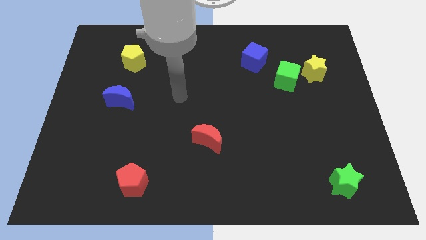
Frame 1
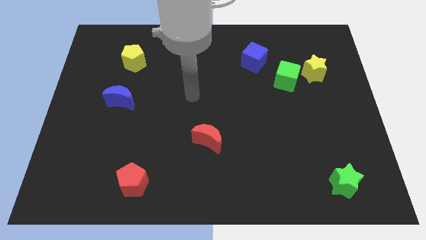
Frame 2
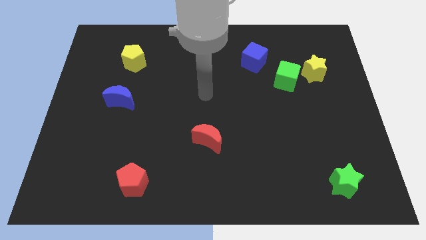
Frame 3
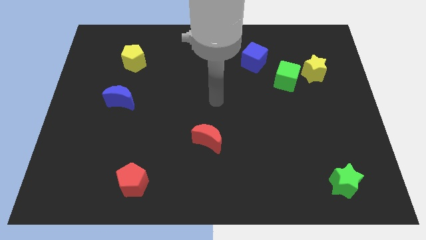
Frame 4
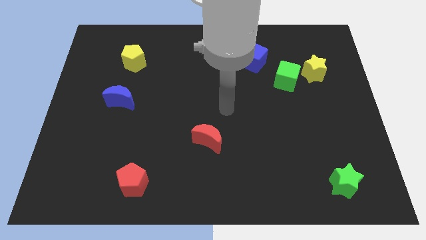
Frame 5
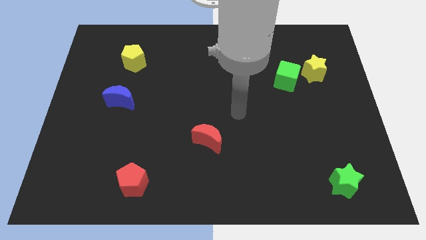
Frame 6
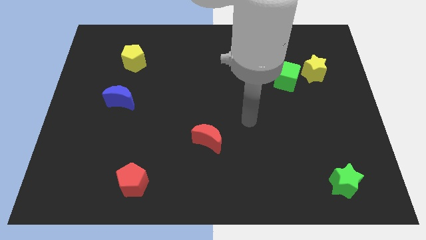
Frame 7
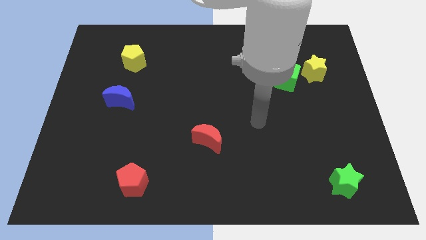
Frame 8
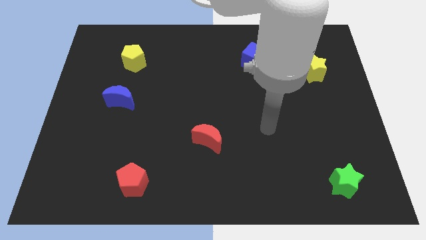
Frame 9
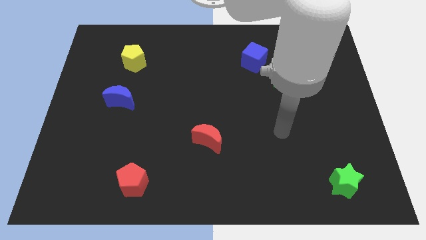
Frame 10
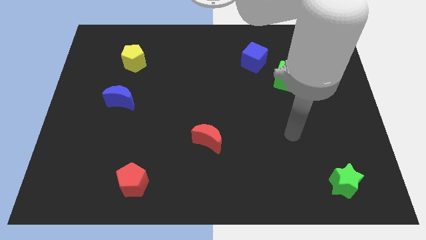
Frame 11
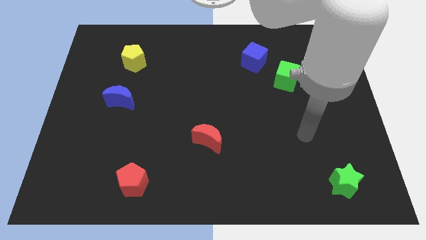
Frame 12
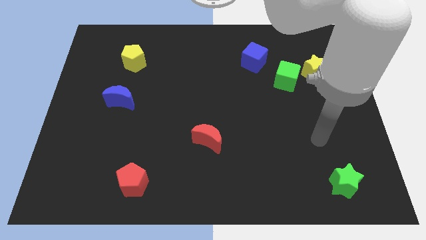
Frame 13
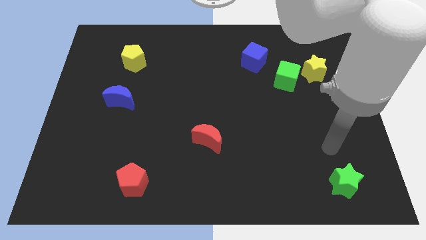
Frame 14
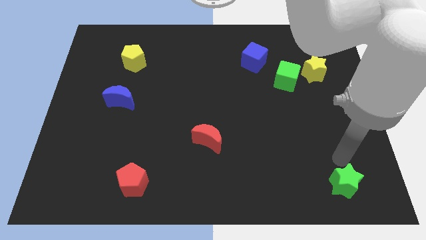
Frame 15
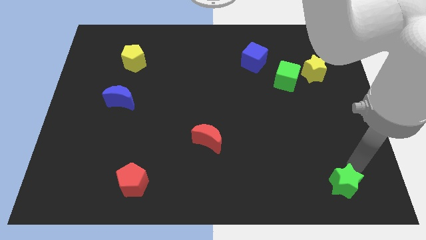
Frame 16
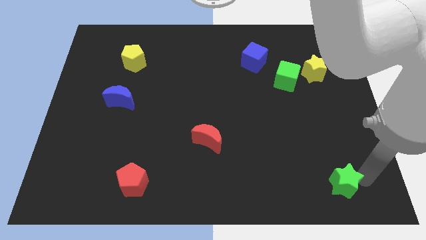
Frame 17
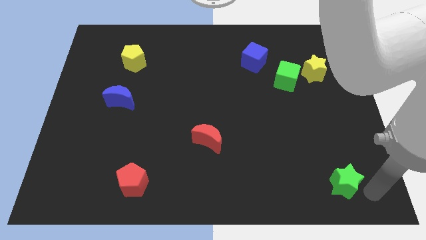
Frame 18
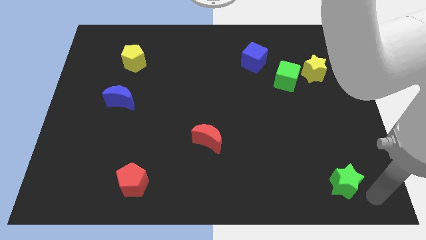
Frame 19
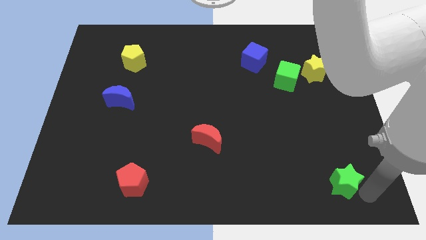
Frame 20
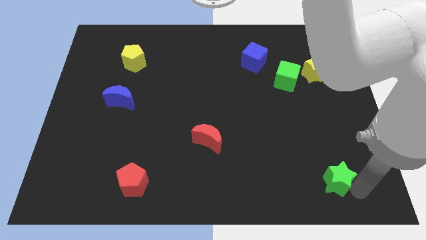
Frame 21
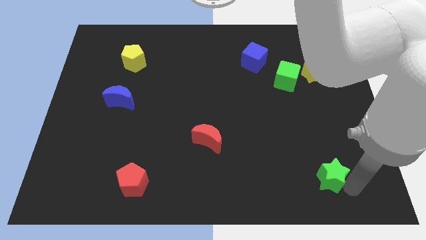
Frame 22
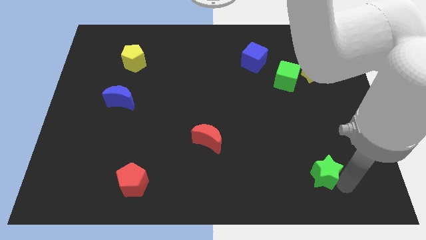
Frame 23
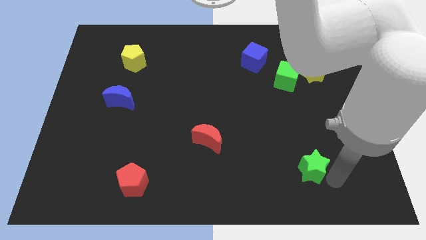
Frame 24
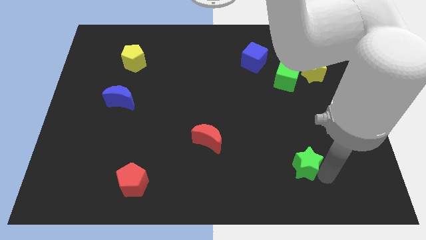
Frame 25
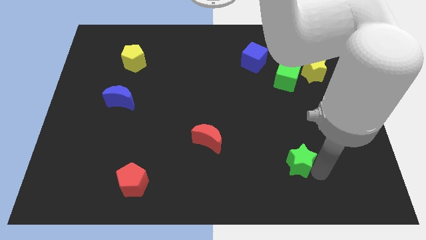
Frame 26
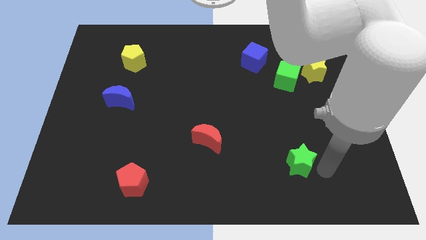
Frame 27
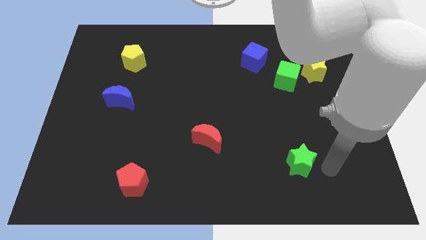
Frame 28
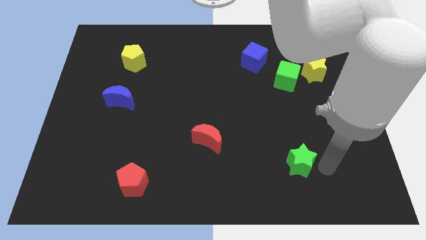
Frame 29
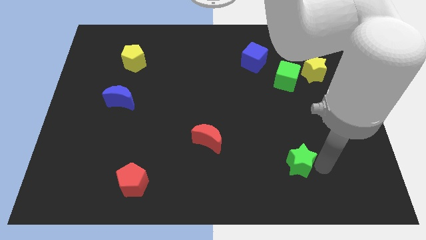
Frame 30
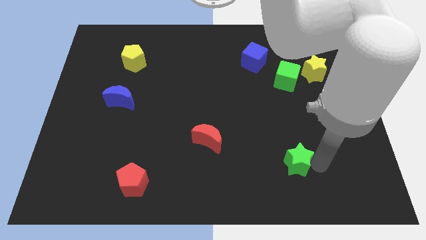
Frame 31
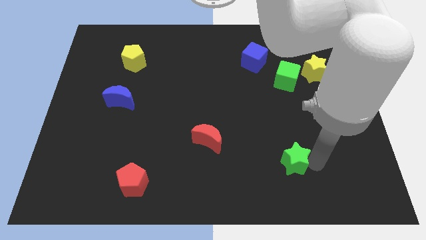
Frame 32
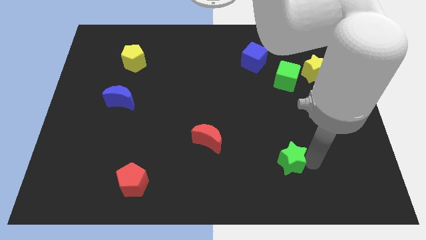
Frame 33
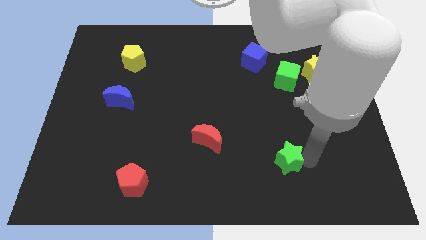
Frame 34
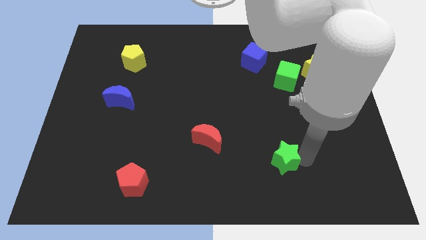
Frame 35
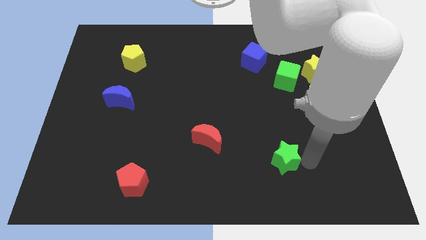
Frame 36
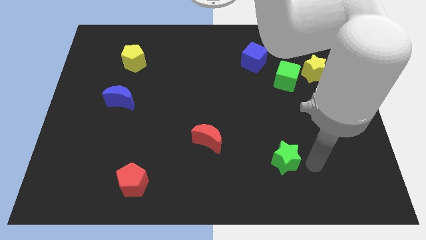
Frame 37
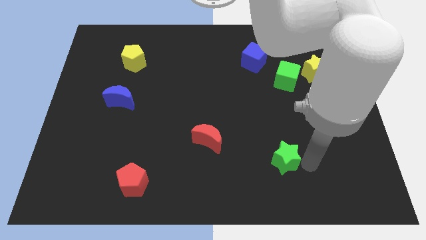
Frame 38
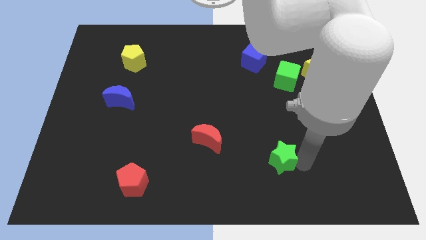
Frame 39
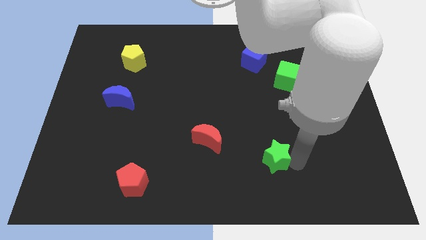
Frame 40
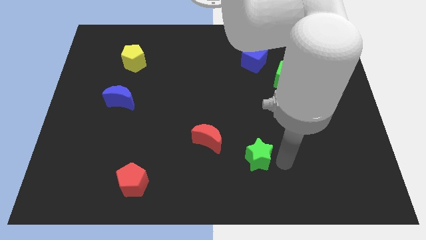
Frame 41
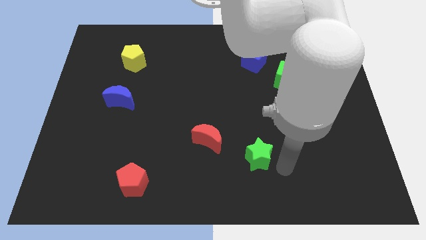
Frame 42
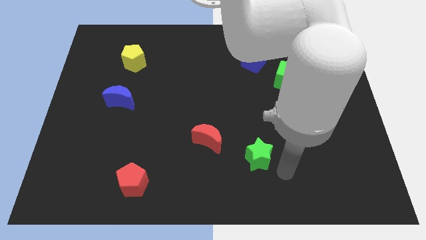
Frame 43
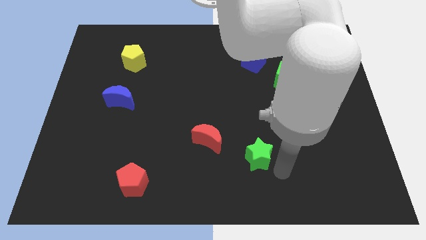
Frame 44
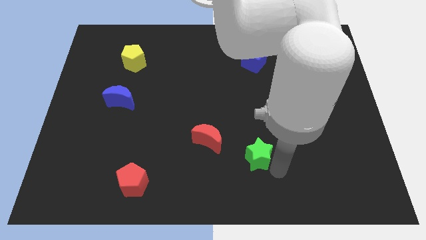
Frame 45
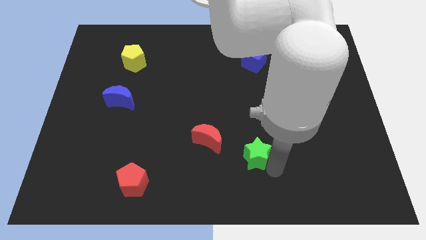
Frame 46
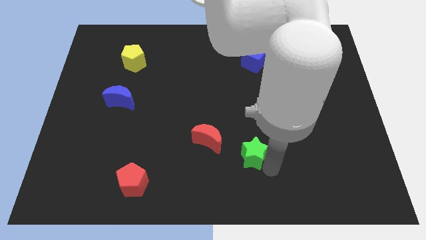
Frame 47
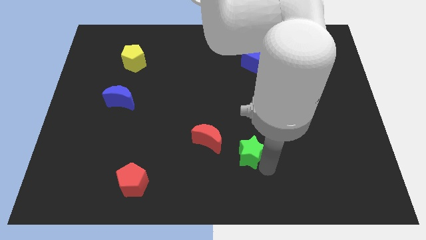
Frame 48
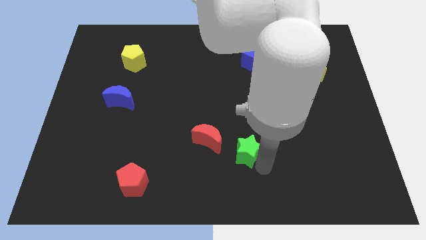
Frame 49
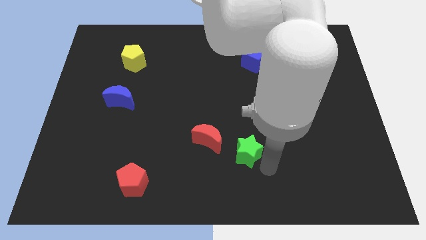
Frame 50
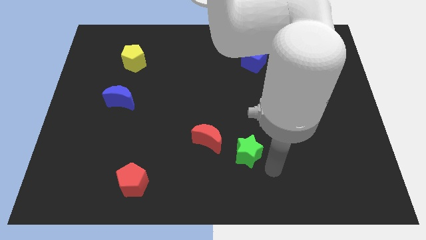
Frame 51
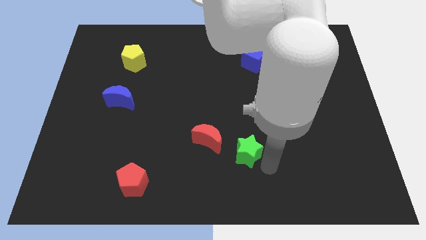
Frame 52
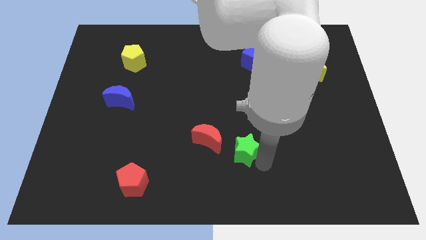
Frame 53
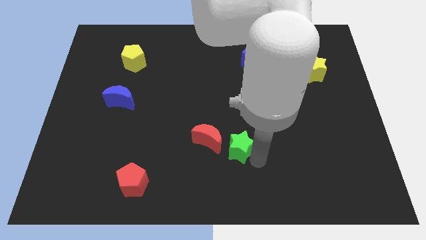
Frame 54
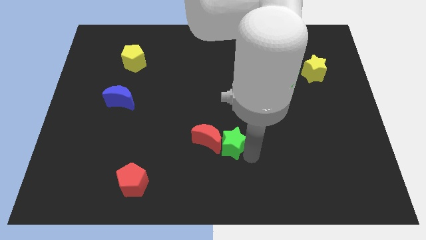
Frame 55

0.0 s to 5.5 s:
move the green star next to the red moon

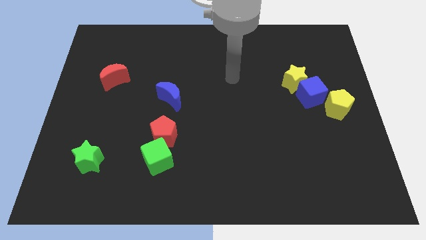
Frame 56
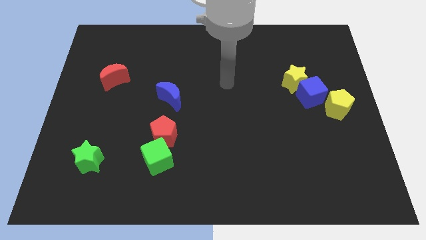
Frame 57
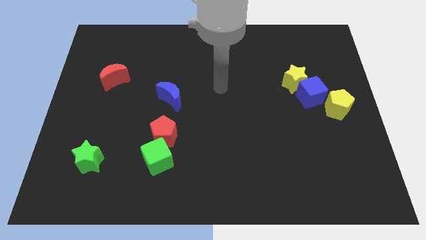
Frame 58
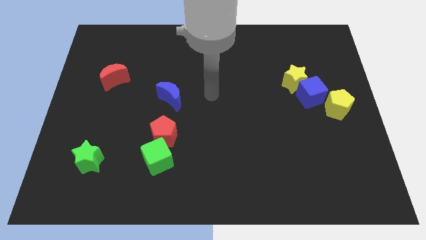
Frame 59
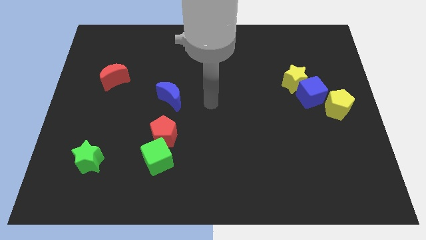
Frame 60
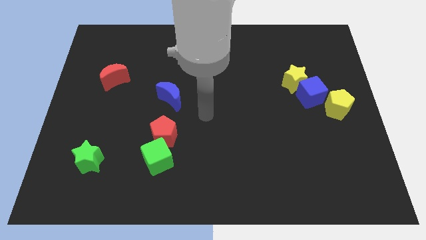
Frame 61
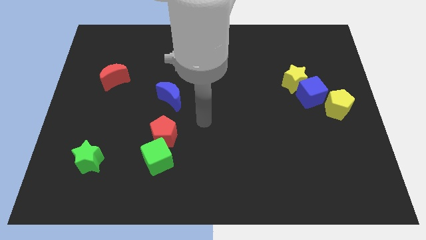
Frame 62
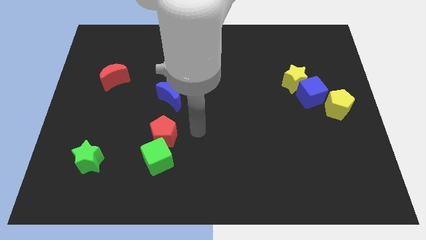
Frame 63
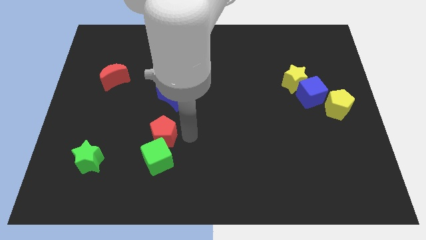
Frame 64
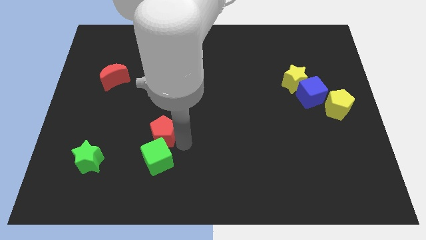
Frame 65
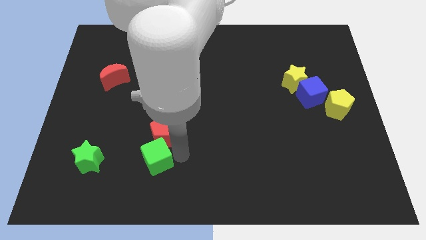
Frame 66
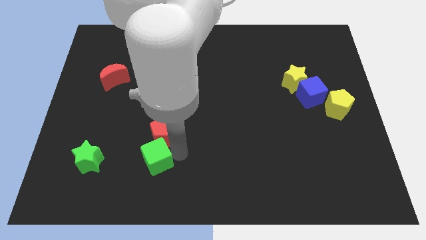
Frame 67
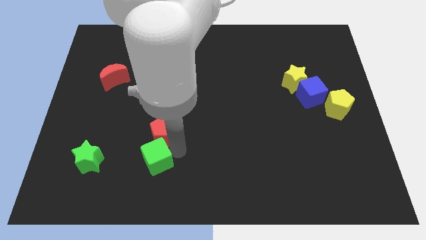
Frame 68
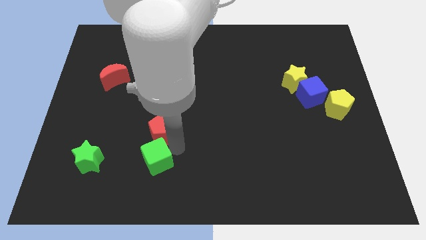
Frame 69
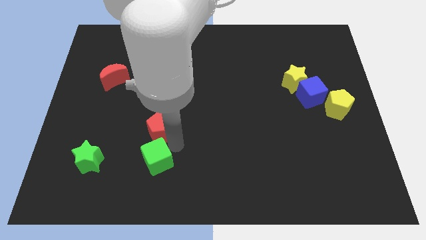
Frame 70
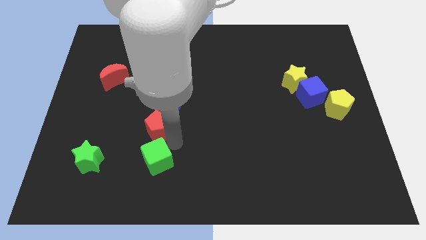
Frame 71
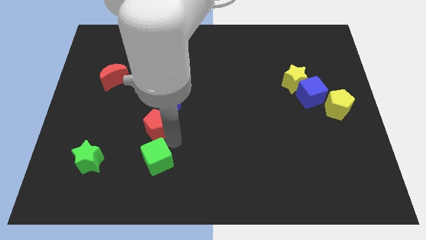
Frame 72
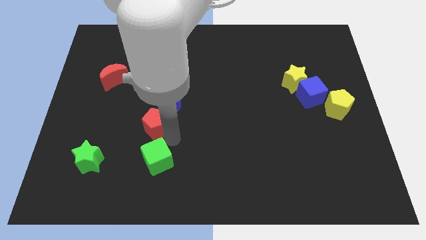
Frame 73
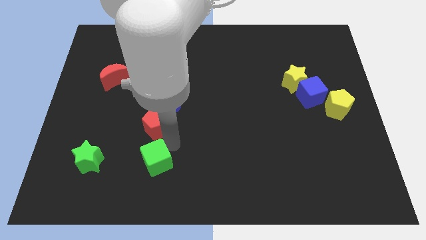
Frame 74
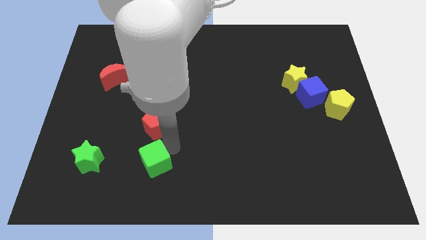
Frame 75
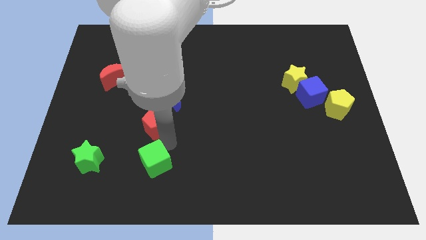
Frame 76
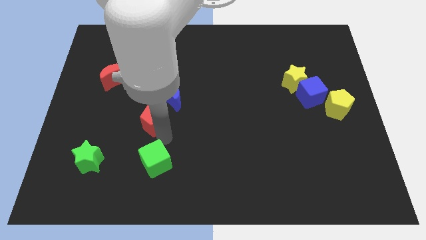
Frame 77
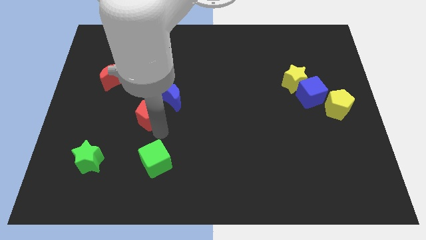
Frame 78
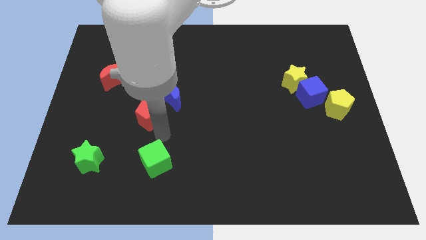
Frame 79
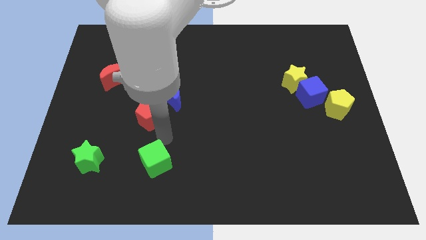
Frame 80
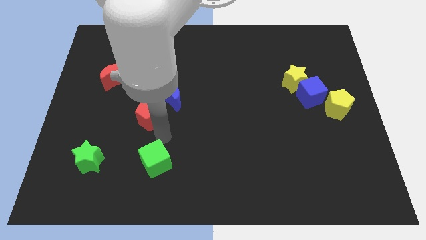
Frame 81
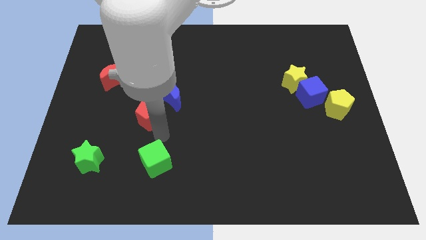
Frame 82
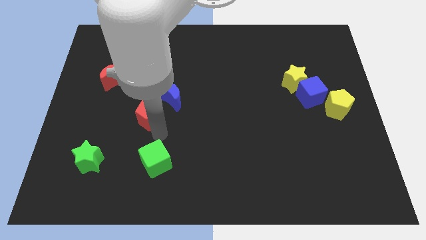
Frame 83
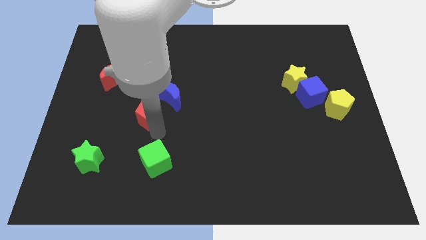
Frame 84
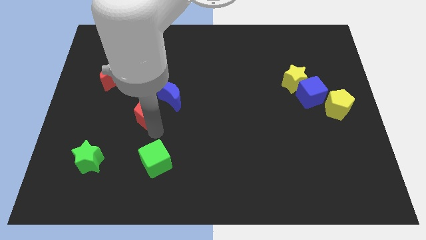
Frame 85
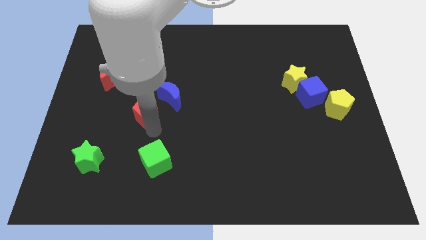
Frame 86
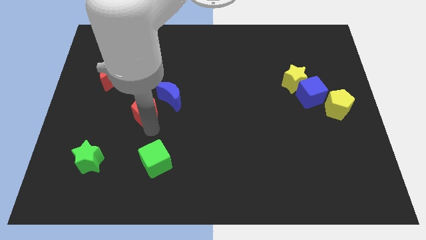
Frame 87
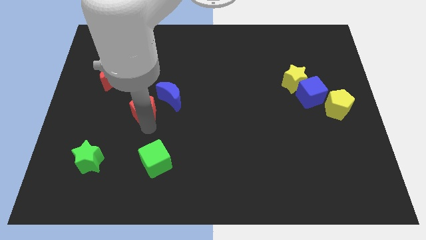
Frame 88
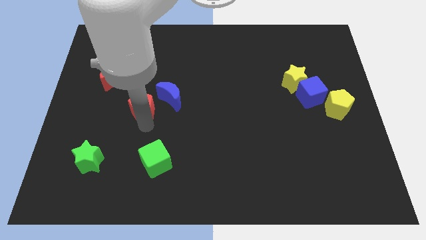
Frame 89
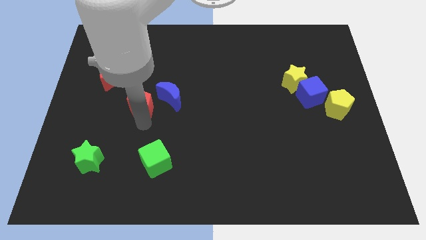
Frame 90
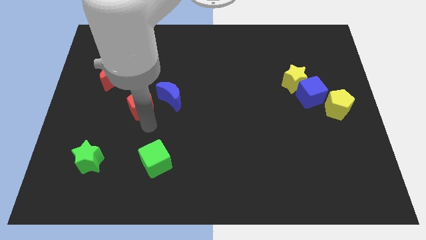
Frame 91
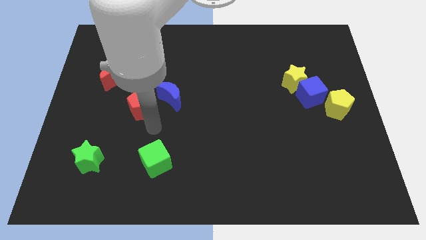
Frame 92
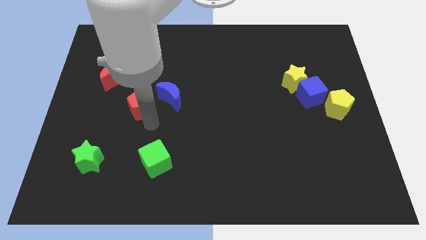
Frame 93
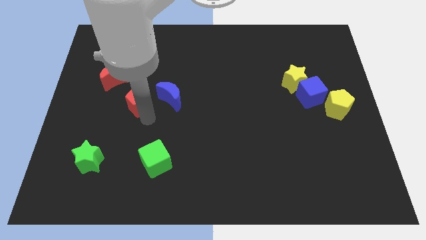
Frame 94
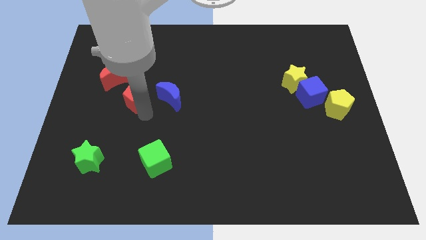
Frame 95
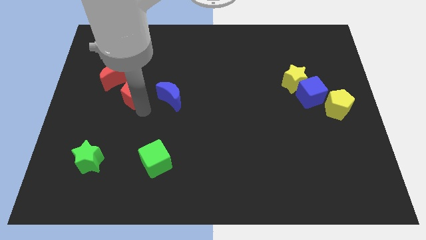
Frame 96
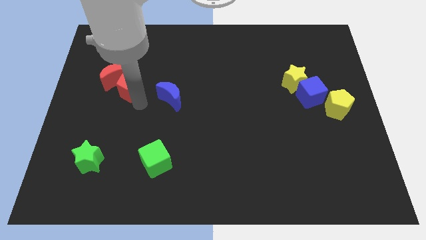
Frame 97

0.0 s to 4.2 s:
slide the red pentagon to the red moon
